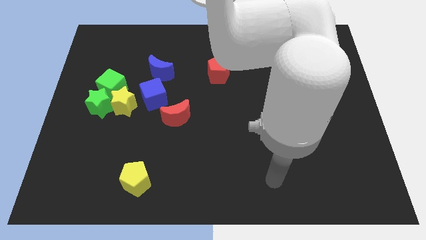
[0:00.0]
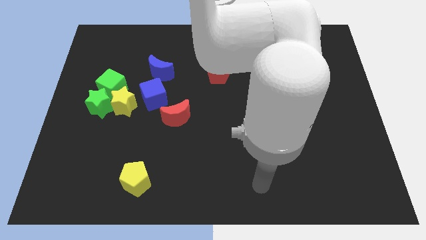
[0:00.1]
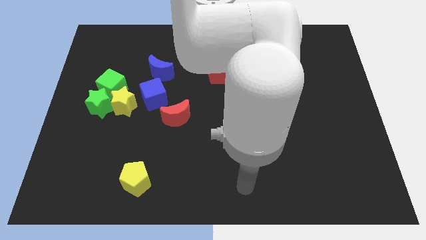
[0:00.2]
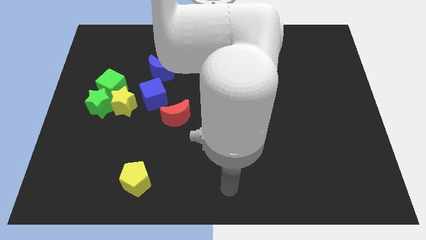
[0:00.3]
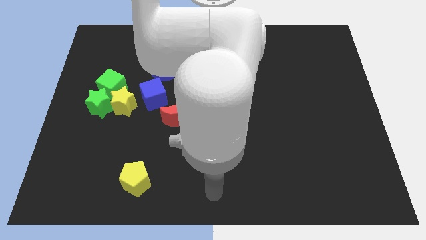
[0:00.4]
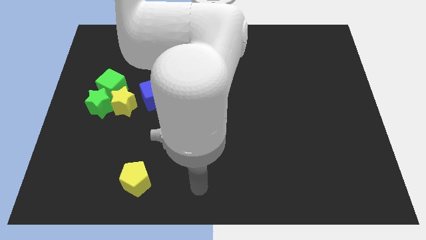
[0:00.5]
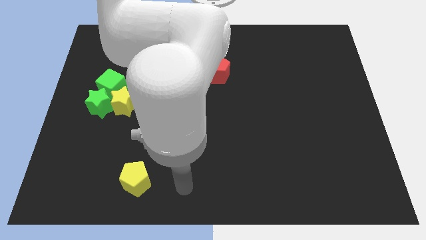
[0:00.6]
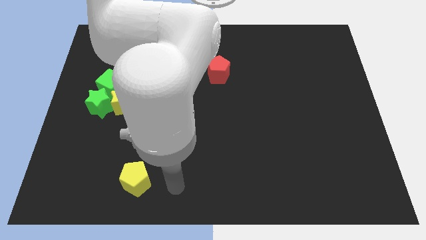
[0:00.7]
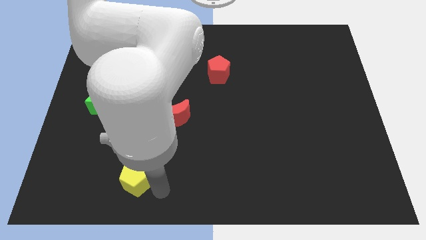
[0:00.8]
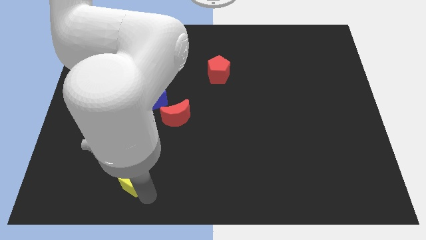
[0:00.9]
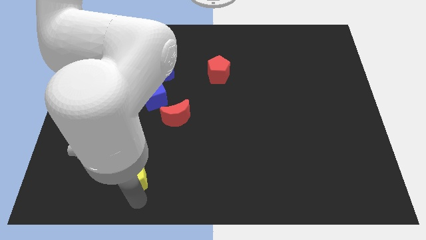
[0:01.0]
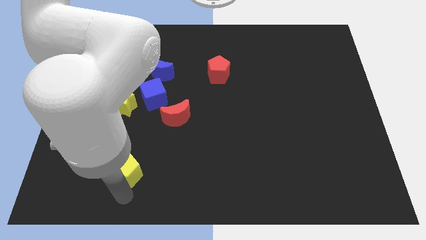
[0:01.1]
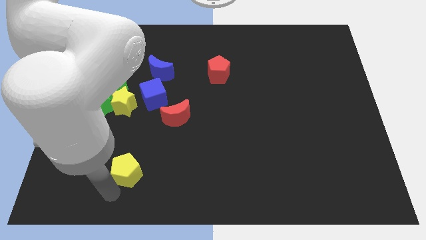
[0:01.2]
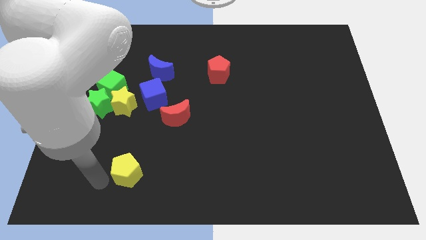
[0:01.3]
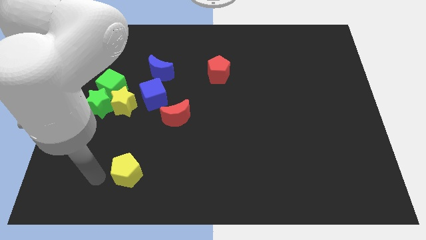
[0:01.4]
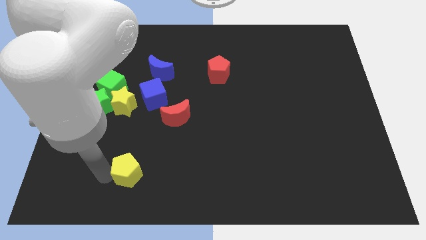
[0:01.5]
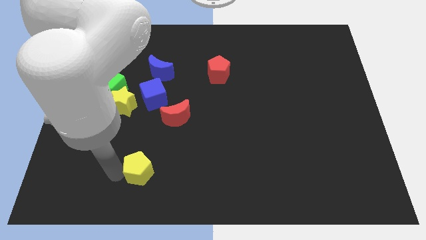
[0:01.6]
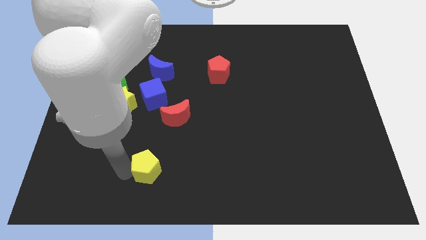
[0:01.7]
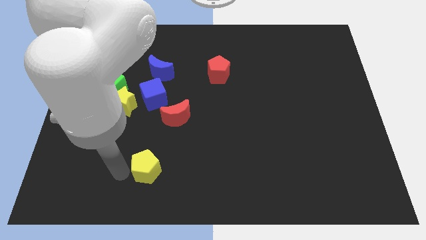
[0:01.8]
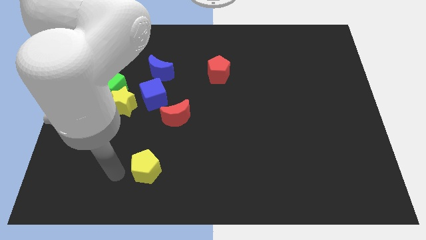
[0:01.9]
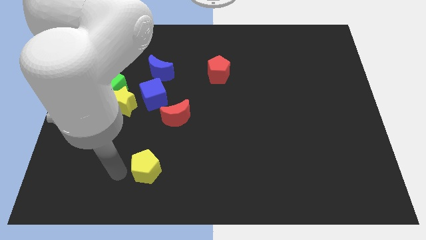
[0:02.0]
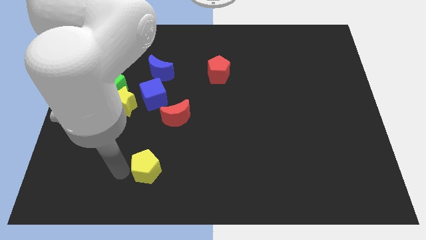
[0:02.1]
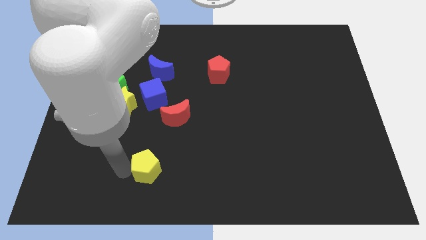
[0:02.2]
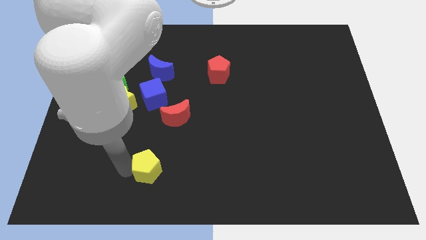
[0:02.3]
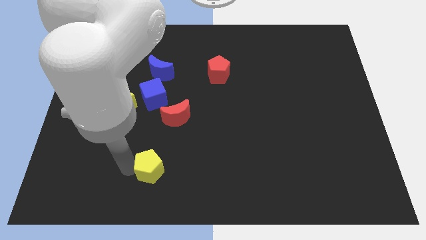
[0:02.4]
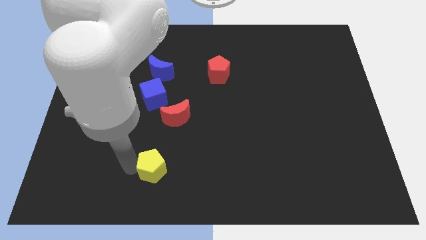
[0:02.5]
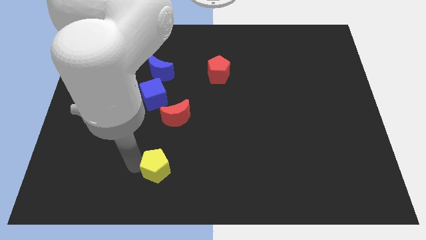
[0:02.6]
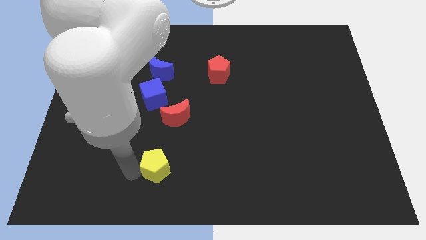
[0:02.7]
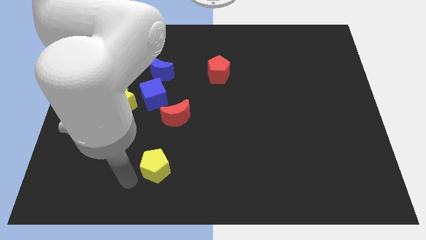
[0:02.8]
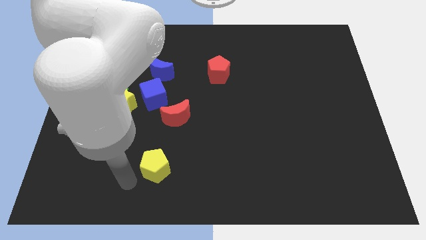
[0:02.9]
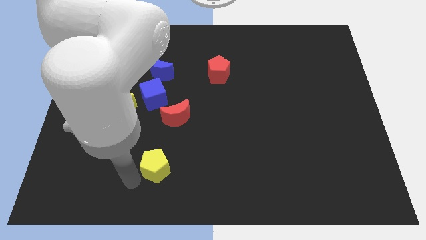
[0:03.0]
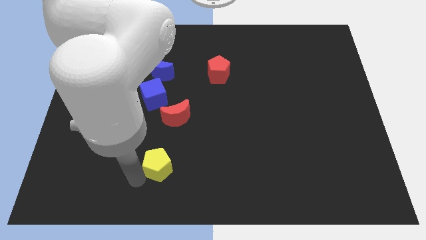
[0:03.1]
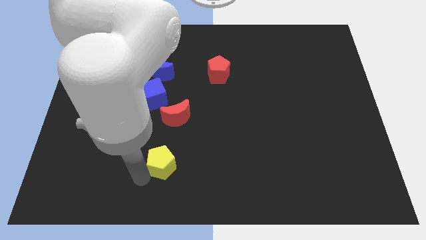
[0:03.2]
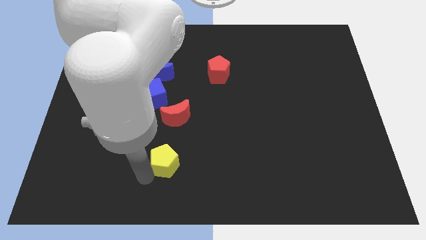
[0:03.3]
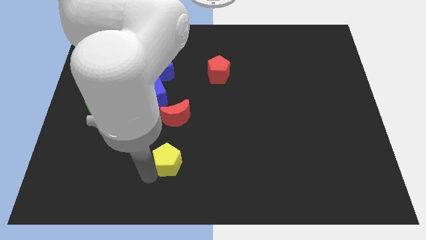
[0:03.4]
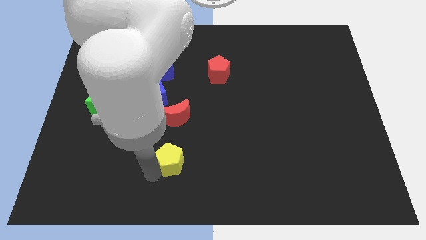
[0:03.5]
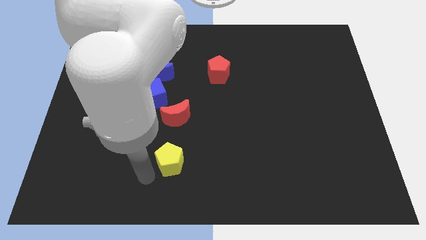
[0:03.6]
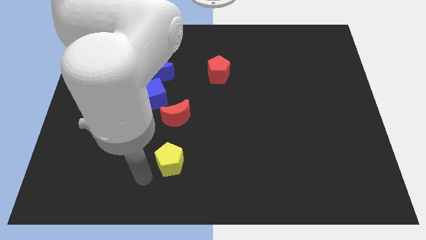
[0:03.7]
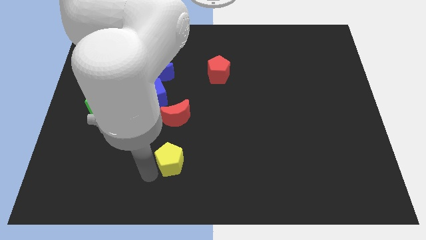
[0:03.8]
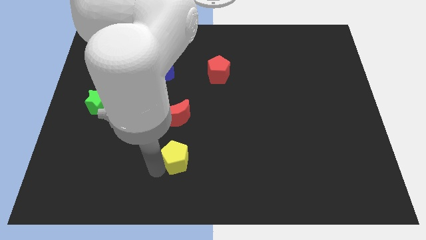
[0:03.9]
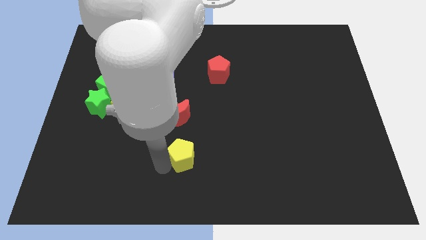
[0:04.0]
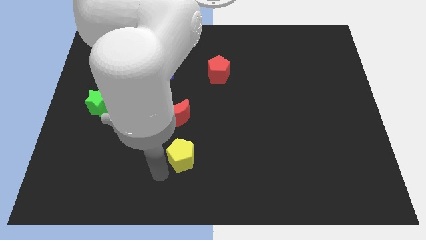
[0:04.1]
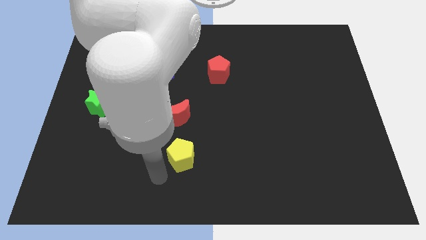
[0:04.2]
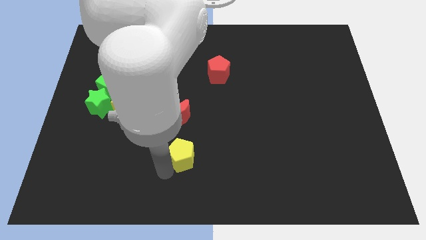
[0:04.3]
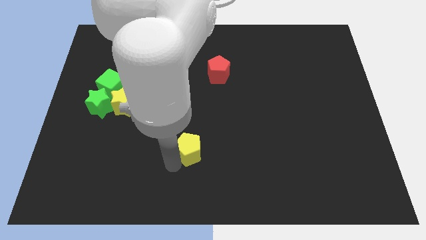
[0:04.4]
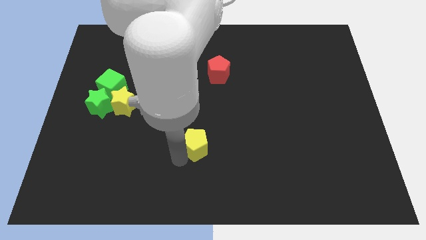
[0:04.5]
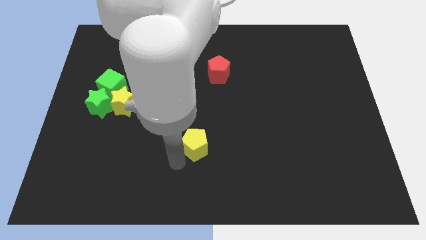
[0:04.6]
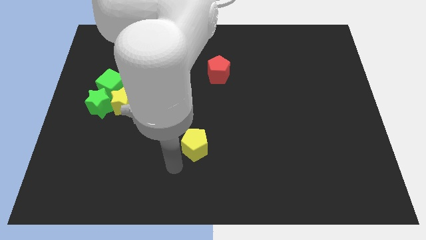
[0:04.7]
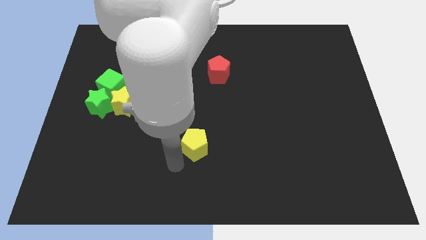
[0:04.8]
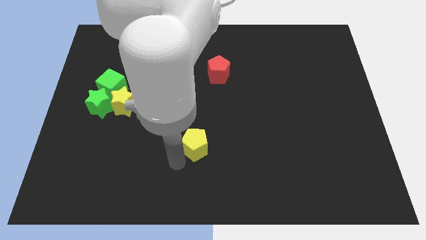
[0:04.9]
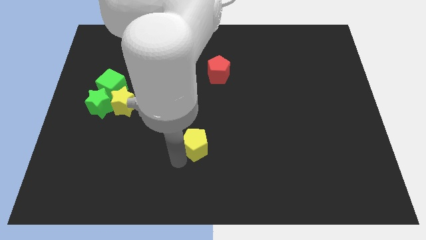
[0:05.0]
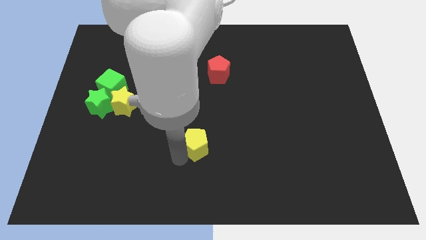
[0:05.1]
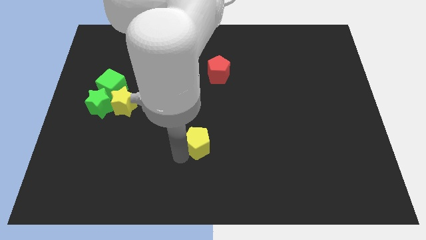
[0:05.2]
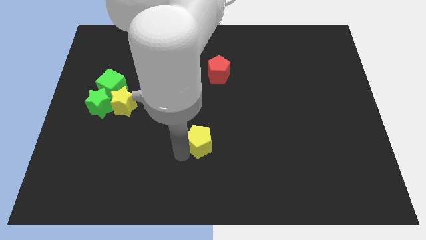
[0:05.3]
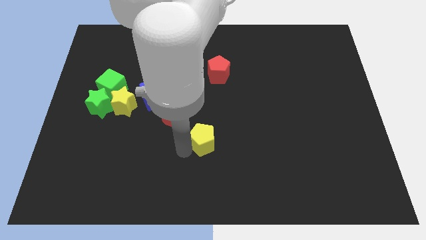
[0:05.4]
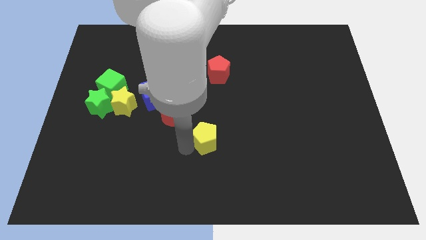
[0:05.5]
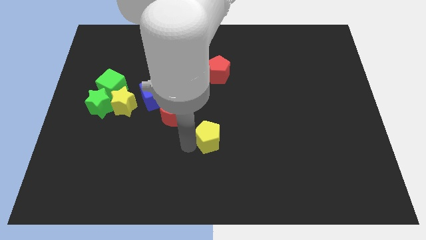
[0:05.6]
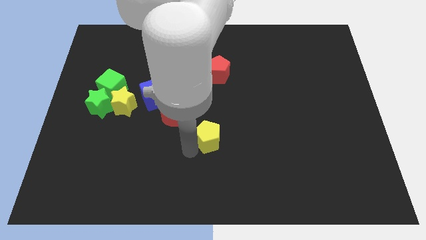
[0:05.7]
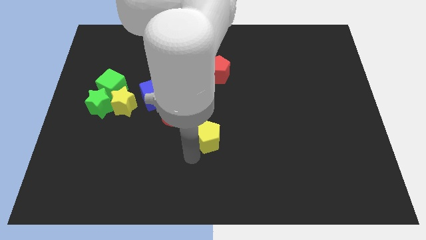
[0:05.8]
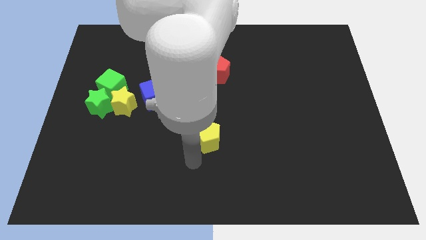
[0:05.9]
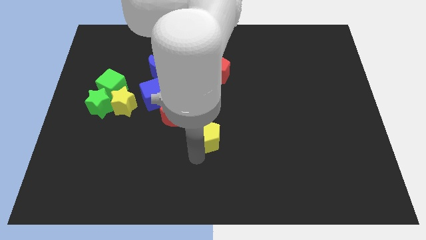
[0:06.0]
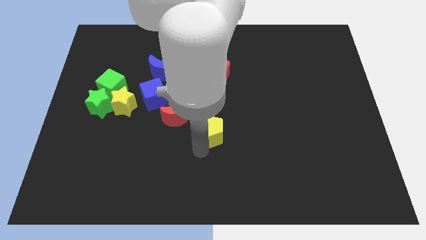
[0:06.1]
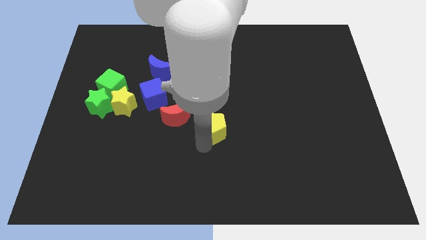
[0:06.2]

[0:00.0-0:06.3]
move the yellow pentagon up and to the right diagonally

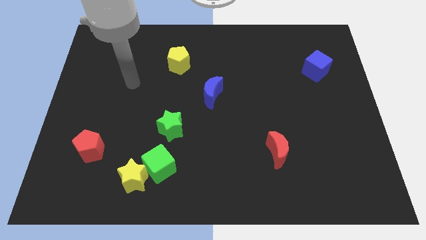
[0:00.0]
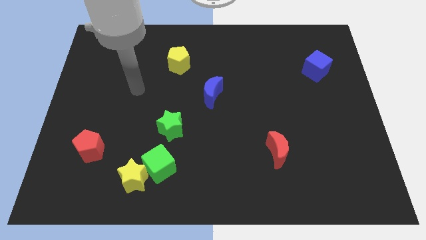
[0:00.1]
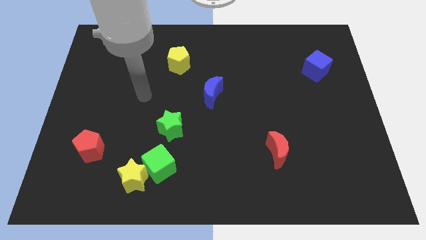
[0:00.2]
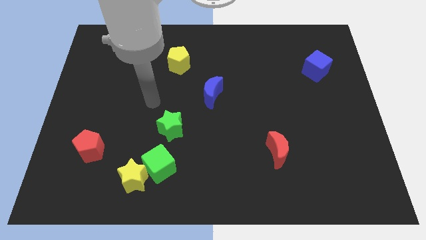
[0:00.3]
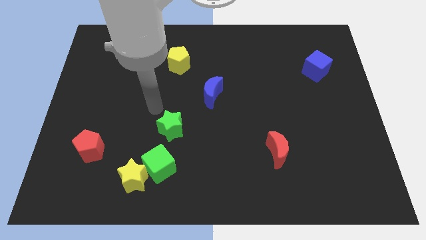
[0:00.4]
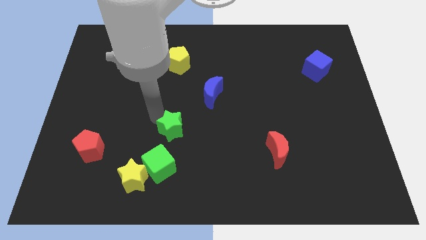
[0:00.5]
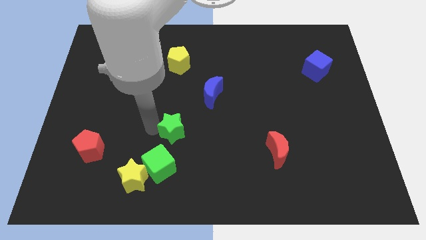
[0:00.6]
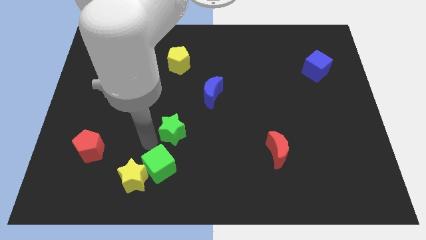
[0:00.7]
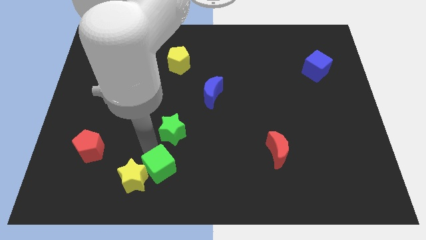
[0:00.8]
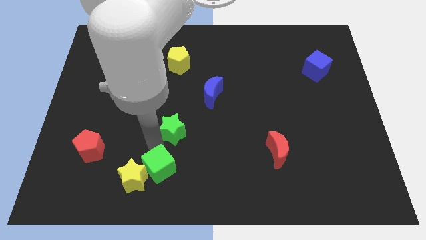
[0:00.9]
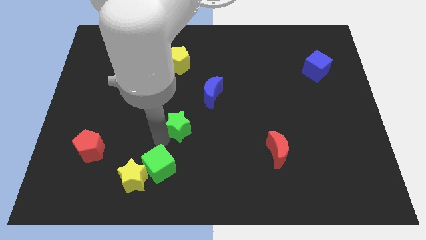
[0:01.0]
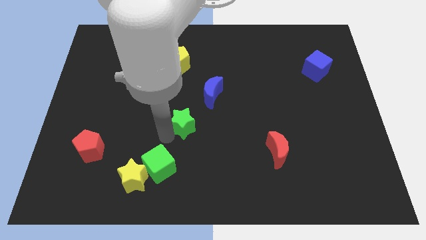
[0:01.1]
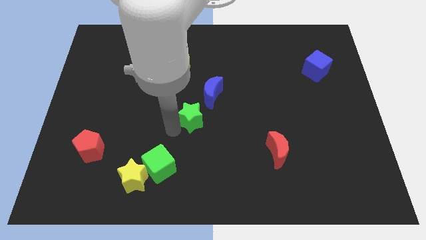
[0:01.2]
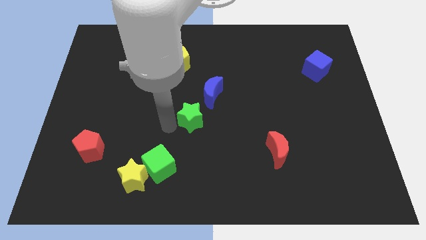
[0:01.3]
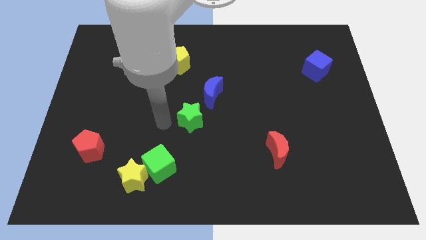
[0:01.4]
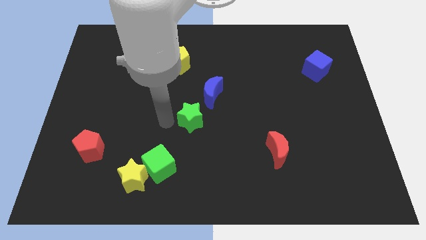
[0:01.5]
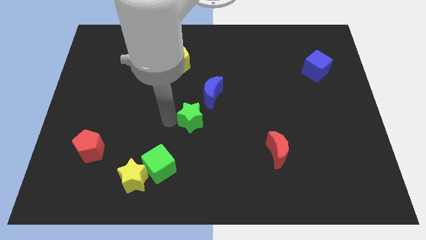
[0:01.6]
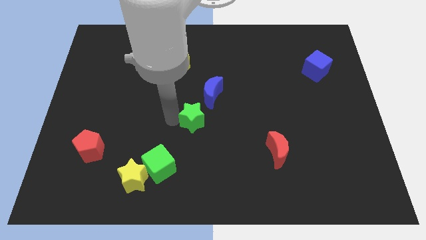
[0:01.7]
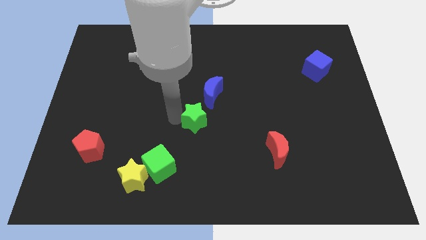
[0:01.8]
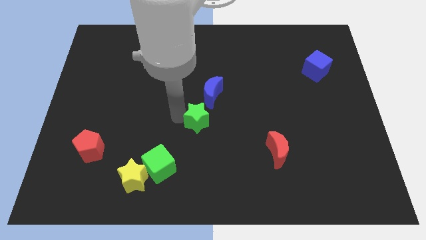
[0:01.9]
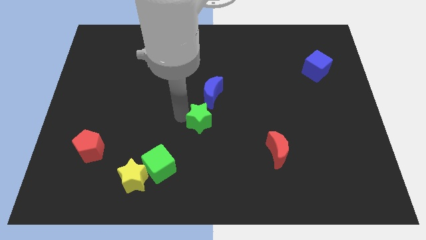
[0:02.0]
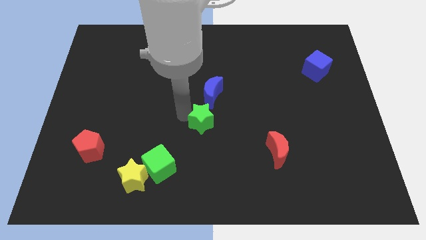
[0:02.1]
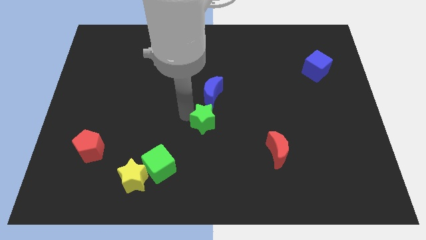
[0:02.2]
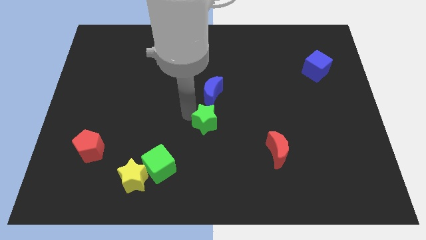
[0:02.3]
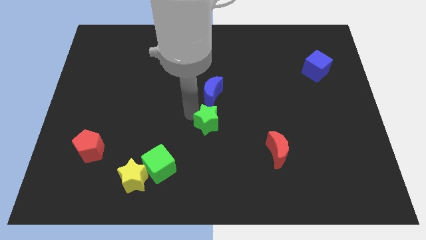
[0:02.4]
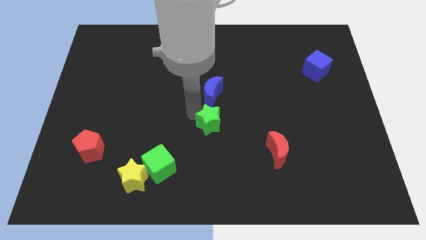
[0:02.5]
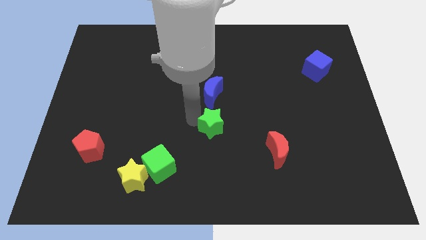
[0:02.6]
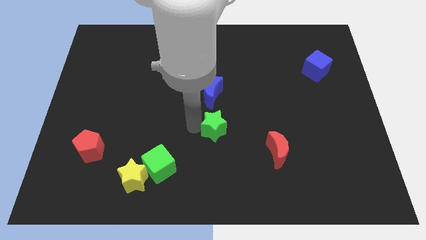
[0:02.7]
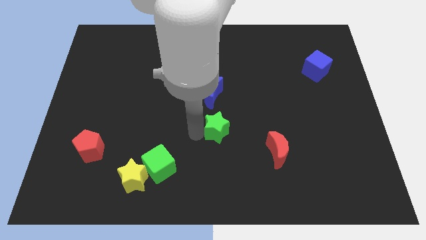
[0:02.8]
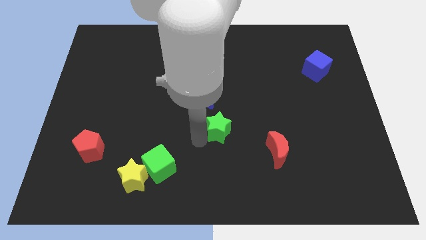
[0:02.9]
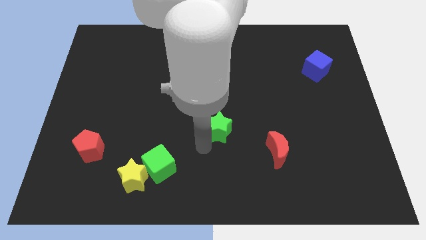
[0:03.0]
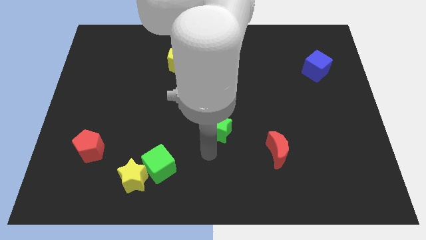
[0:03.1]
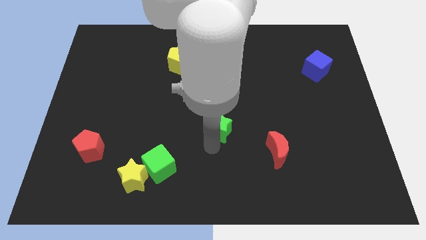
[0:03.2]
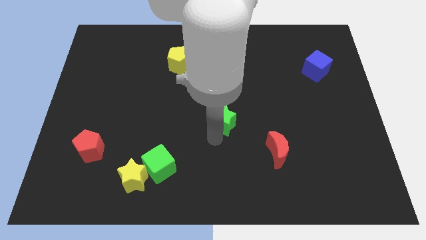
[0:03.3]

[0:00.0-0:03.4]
slightly push the green star up and right diagonally
